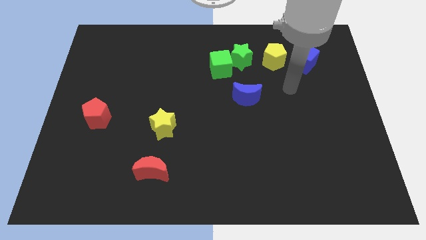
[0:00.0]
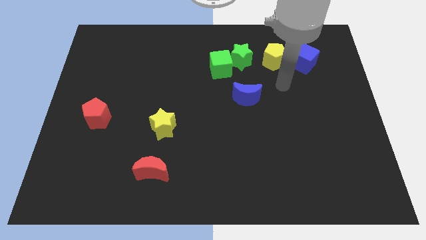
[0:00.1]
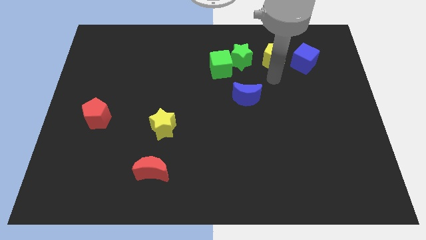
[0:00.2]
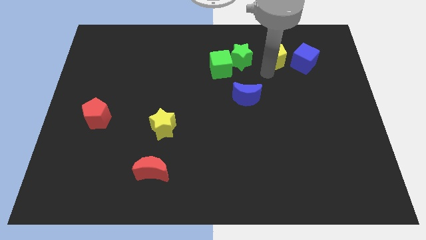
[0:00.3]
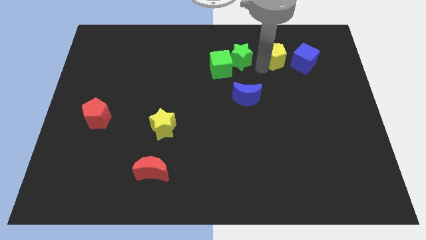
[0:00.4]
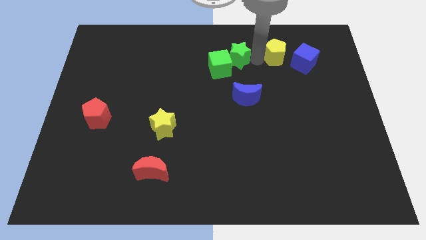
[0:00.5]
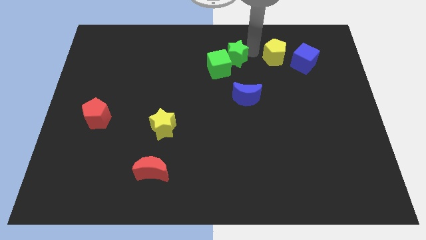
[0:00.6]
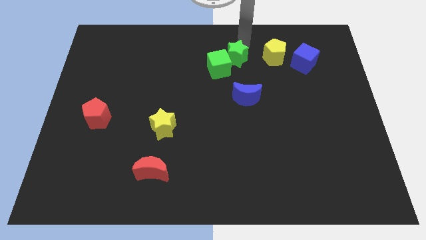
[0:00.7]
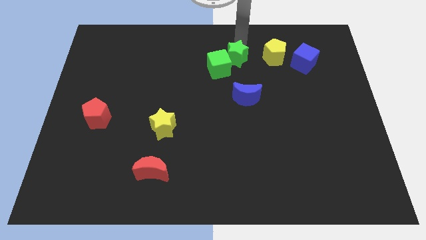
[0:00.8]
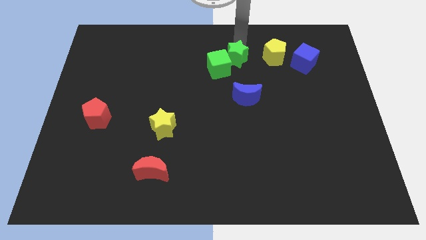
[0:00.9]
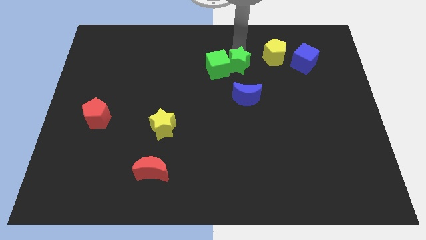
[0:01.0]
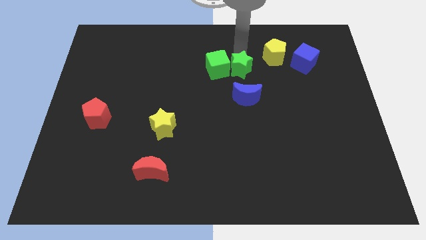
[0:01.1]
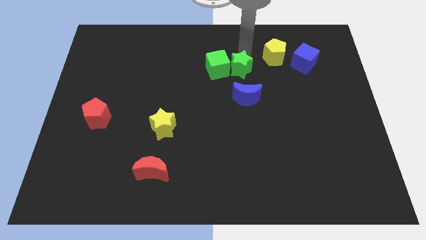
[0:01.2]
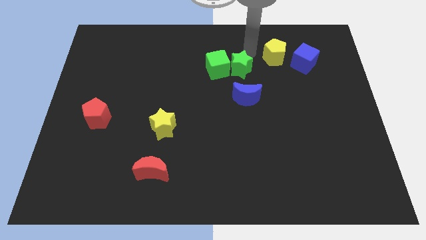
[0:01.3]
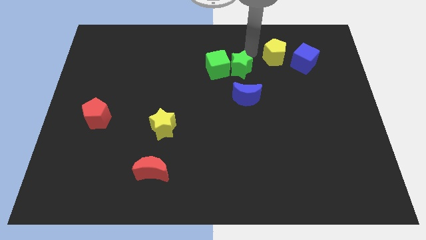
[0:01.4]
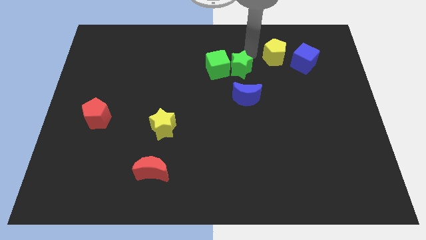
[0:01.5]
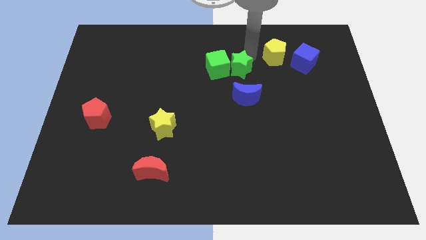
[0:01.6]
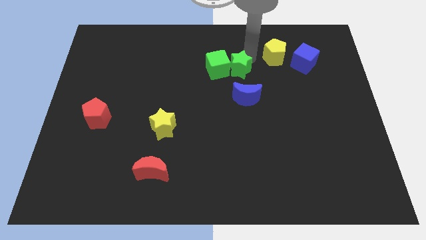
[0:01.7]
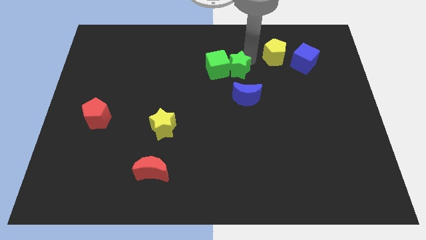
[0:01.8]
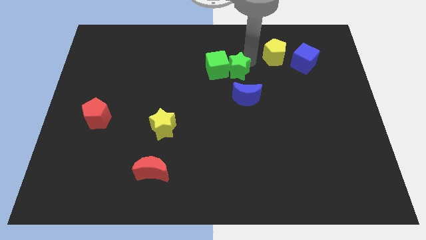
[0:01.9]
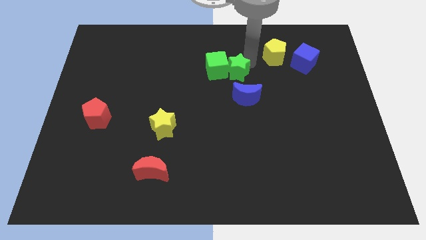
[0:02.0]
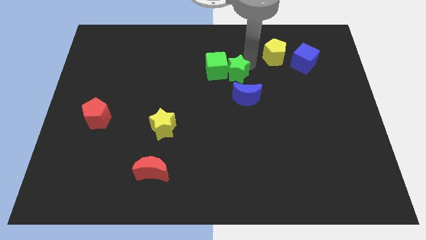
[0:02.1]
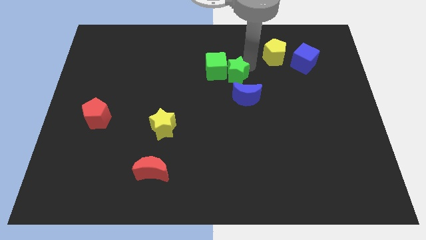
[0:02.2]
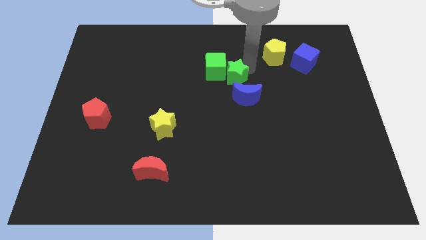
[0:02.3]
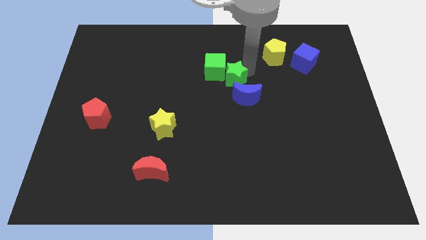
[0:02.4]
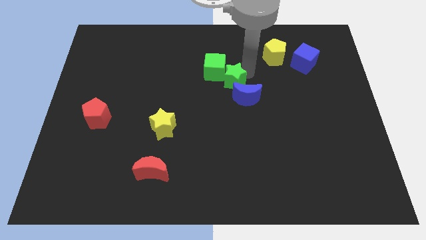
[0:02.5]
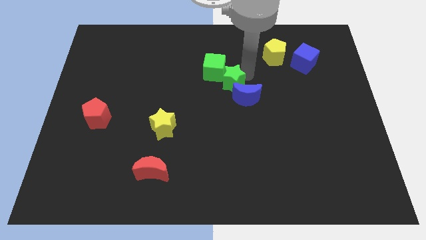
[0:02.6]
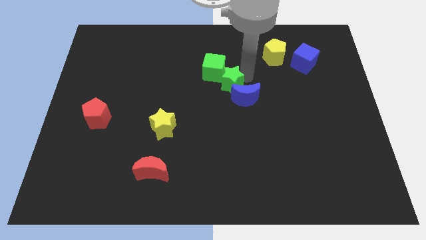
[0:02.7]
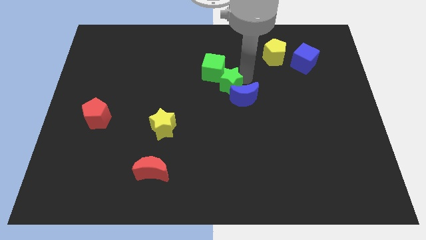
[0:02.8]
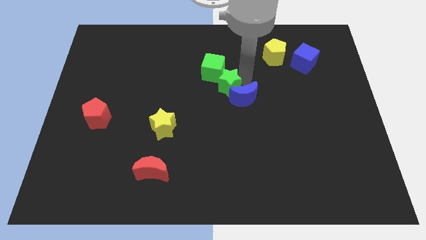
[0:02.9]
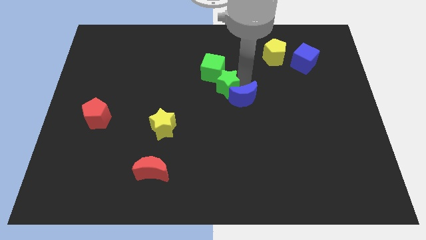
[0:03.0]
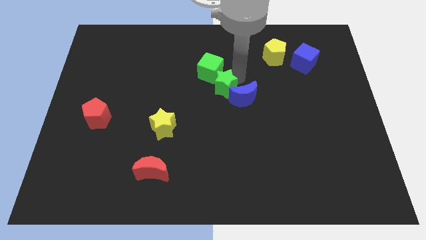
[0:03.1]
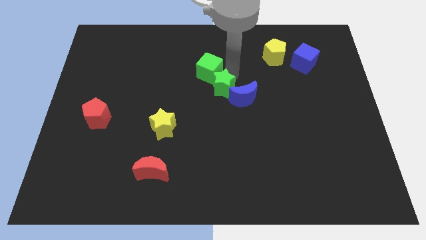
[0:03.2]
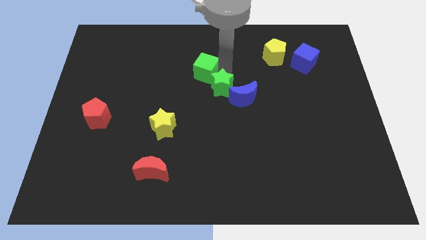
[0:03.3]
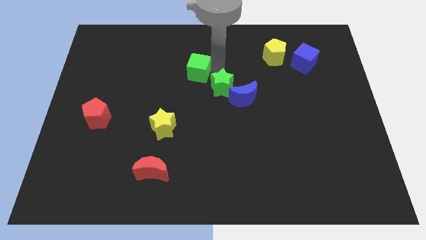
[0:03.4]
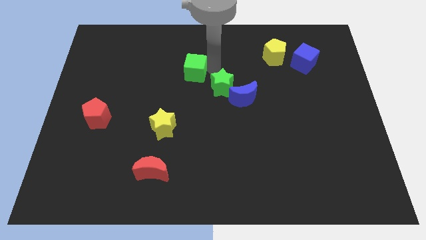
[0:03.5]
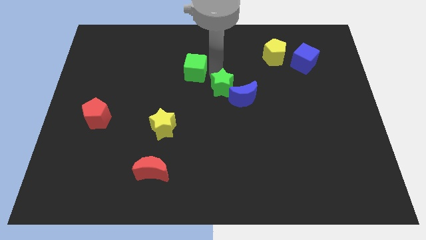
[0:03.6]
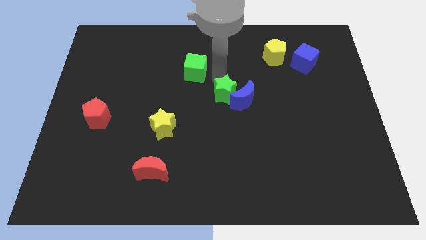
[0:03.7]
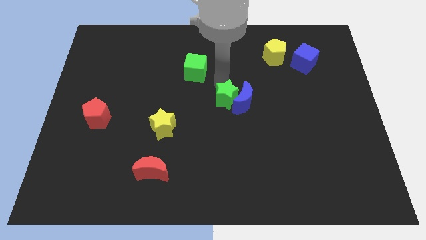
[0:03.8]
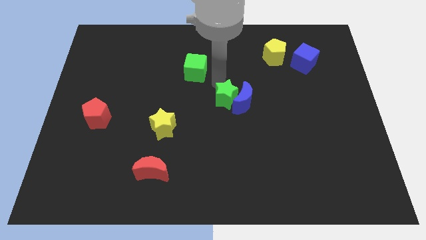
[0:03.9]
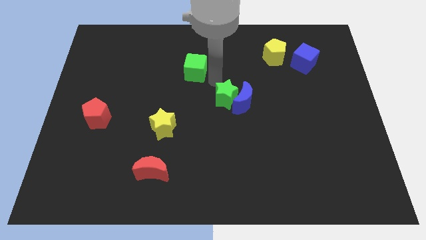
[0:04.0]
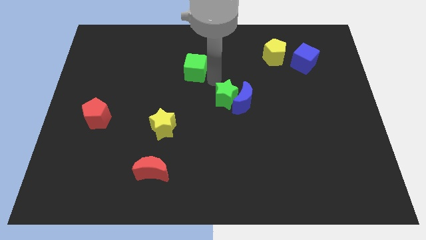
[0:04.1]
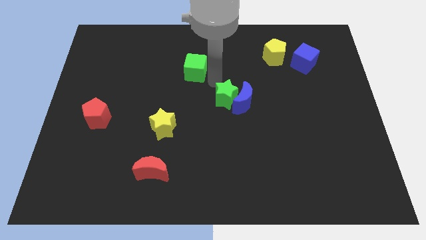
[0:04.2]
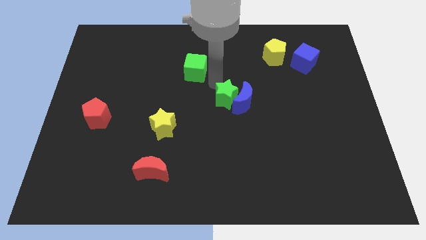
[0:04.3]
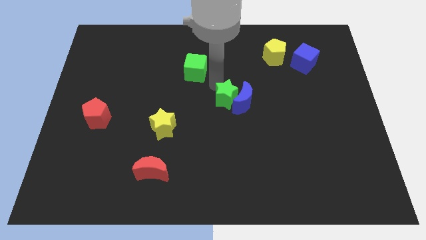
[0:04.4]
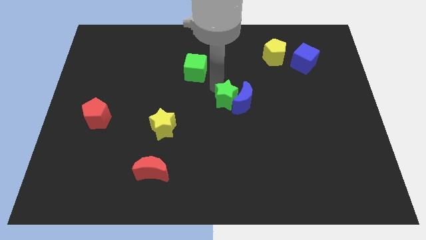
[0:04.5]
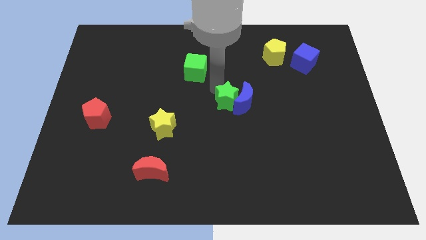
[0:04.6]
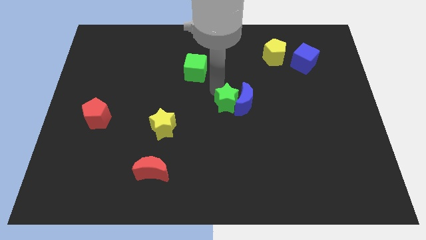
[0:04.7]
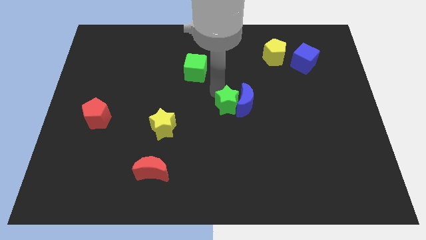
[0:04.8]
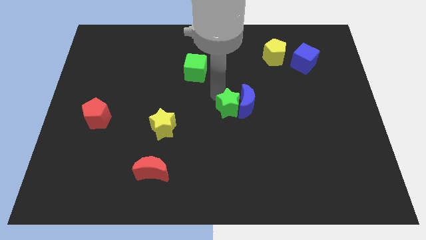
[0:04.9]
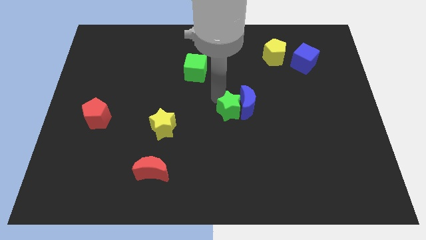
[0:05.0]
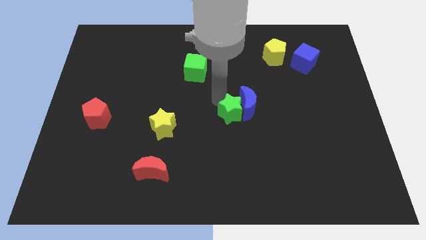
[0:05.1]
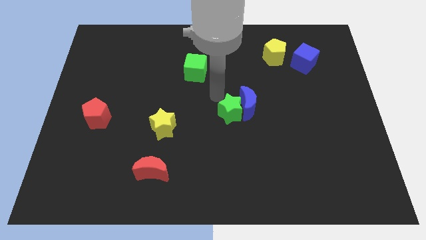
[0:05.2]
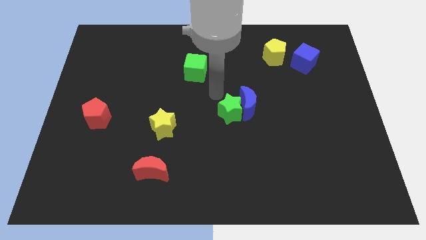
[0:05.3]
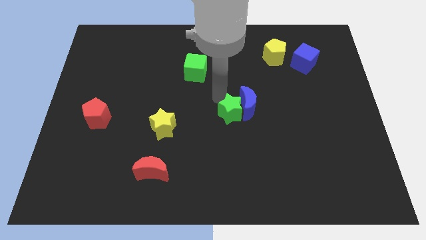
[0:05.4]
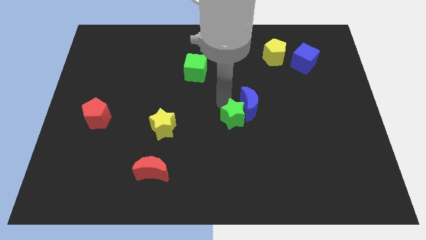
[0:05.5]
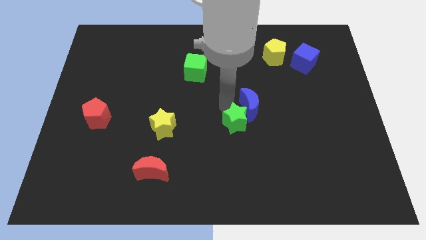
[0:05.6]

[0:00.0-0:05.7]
move the green star downwards

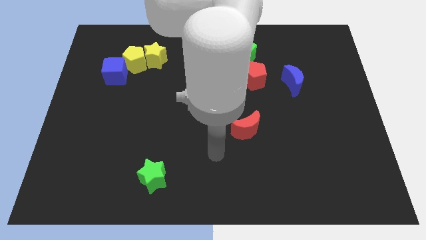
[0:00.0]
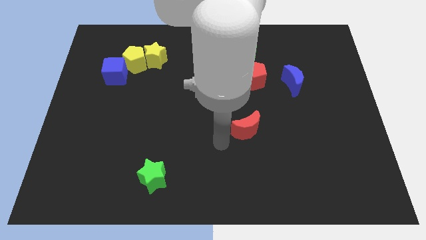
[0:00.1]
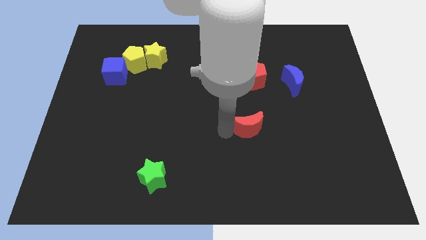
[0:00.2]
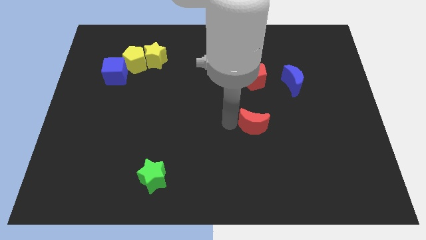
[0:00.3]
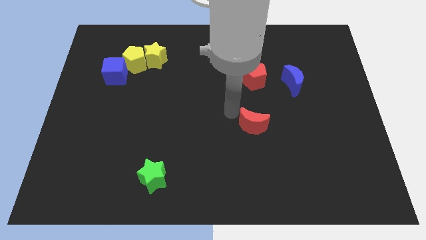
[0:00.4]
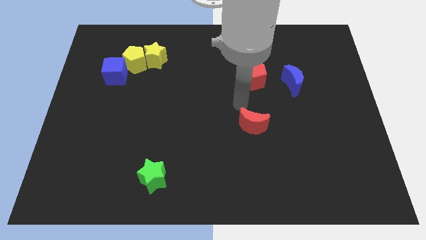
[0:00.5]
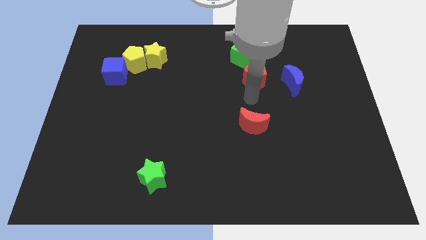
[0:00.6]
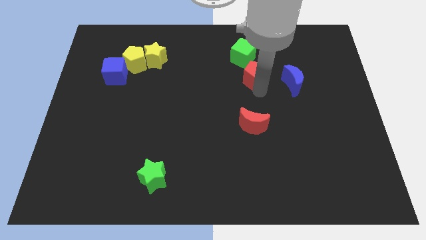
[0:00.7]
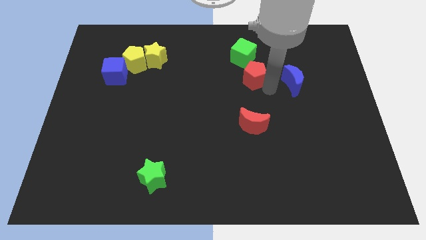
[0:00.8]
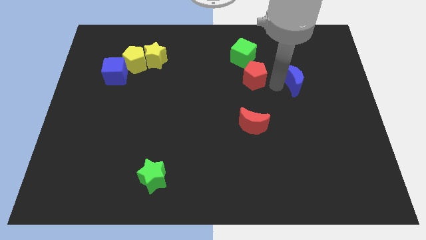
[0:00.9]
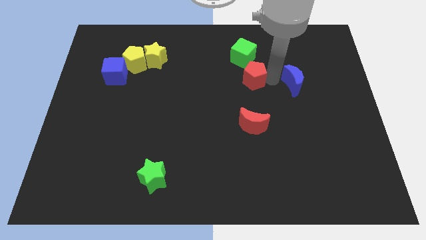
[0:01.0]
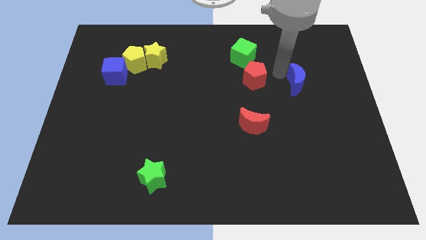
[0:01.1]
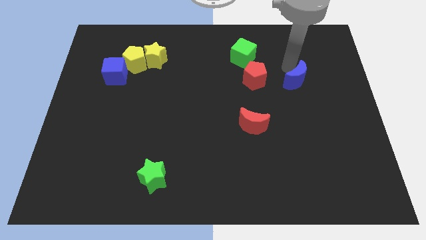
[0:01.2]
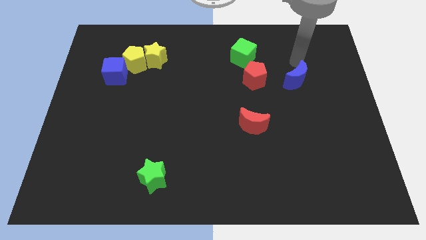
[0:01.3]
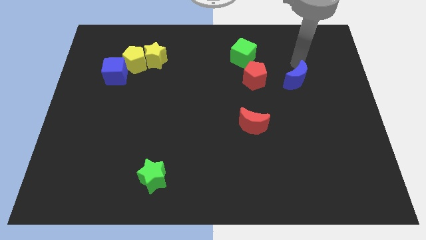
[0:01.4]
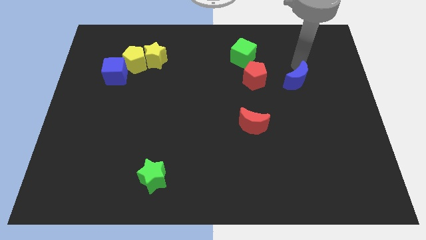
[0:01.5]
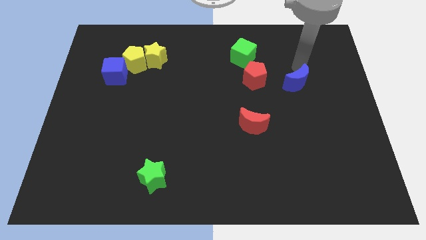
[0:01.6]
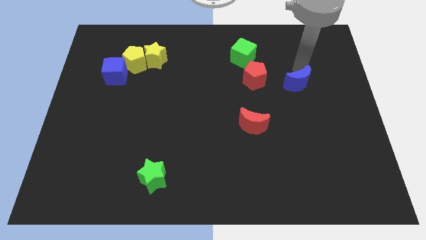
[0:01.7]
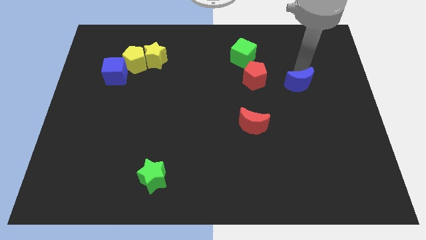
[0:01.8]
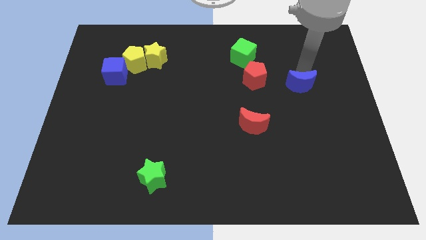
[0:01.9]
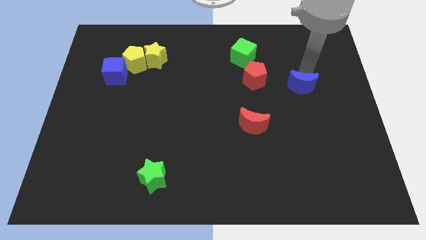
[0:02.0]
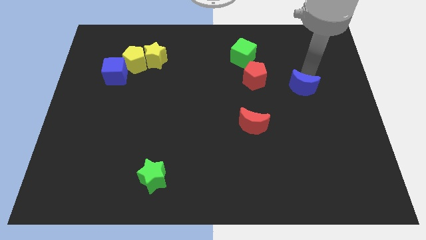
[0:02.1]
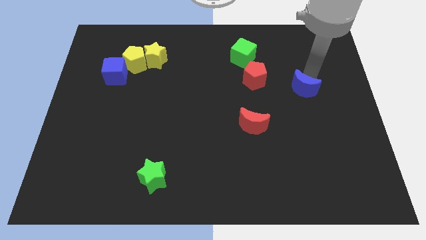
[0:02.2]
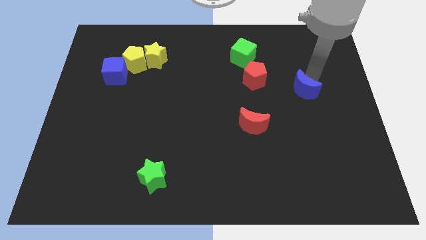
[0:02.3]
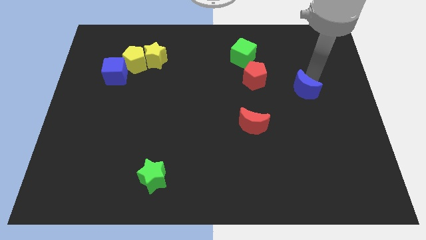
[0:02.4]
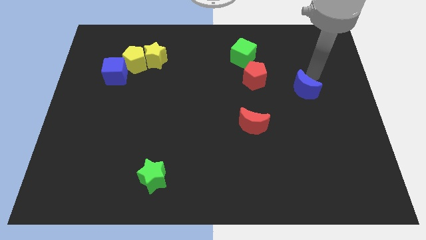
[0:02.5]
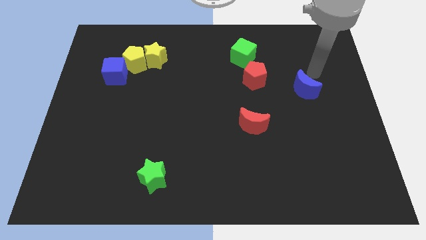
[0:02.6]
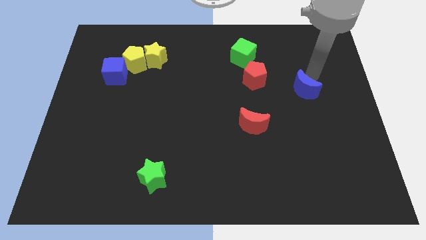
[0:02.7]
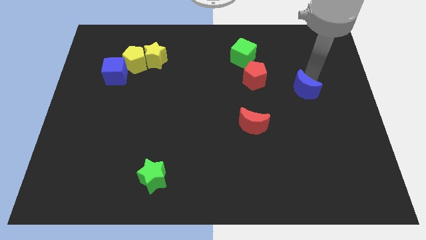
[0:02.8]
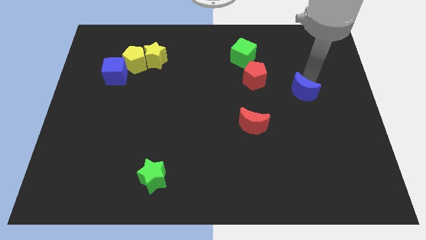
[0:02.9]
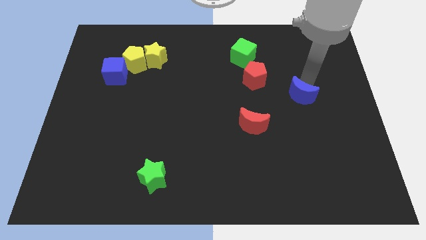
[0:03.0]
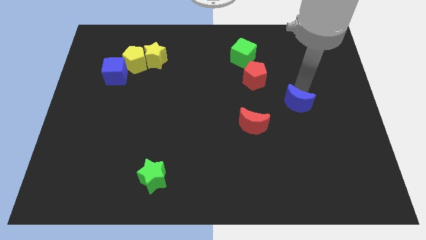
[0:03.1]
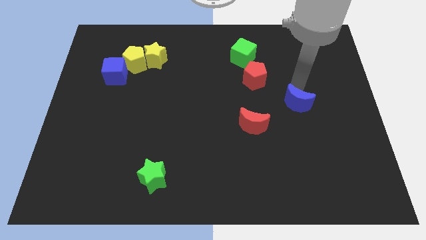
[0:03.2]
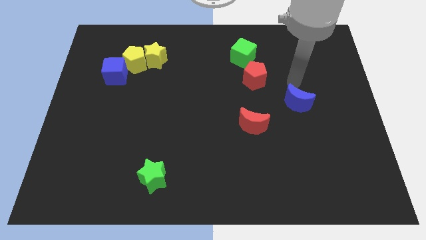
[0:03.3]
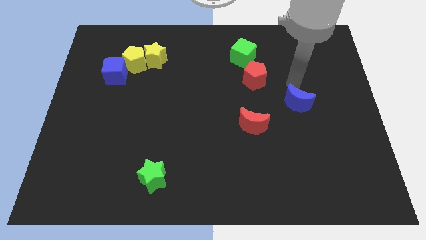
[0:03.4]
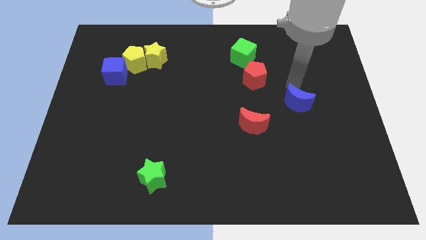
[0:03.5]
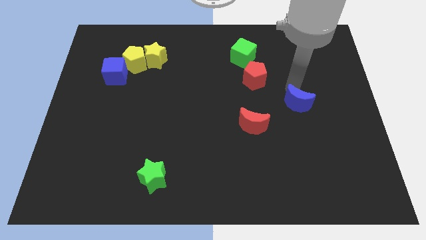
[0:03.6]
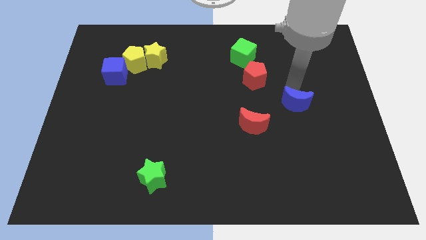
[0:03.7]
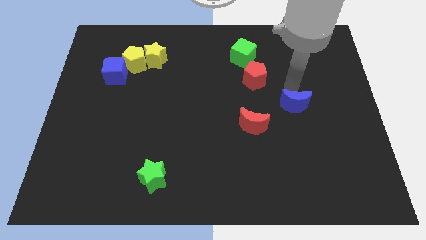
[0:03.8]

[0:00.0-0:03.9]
slide the blue moon a little downwards
